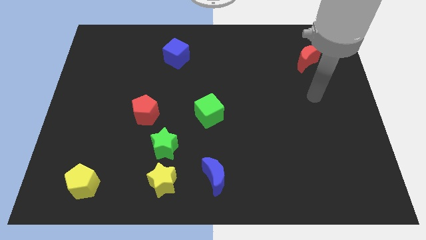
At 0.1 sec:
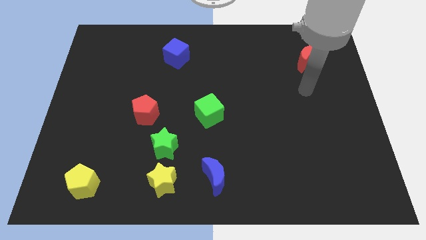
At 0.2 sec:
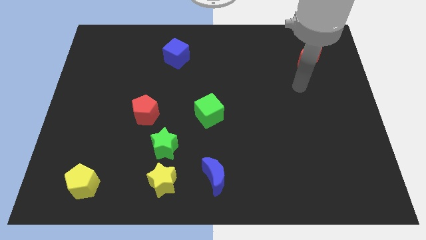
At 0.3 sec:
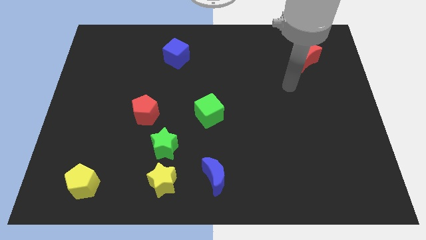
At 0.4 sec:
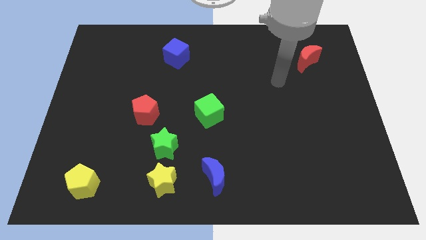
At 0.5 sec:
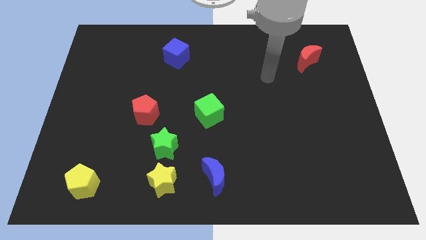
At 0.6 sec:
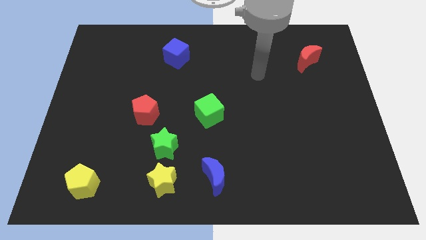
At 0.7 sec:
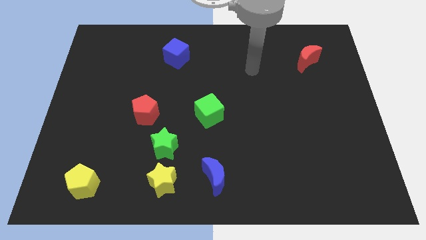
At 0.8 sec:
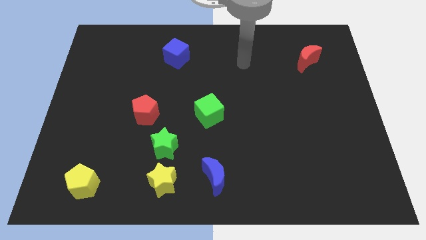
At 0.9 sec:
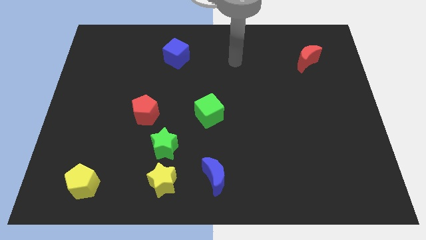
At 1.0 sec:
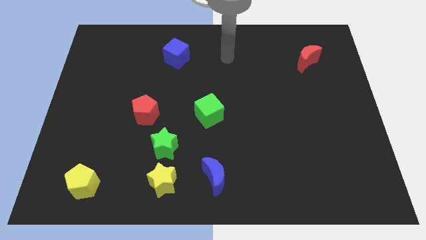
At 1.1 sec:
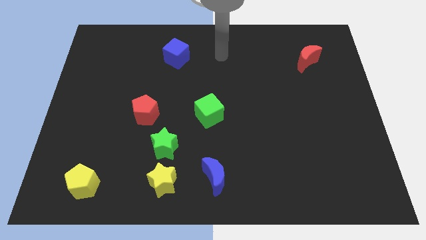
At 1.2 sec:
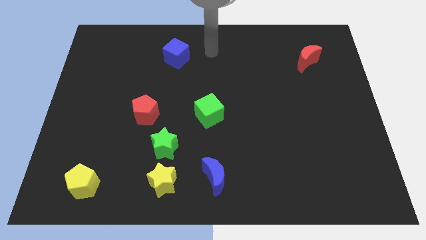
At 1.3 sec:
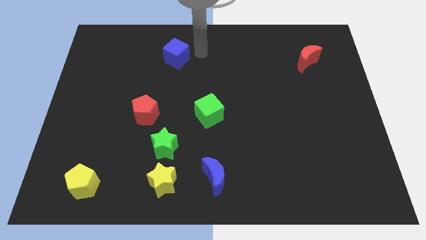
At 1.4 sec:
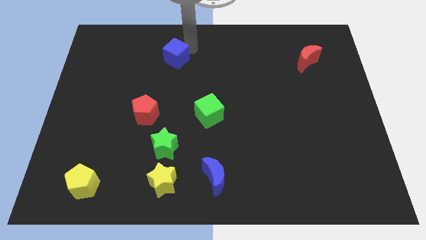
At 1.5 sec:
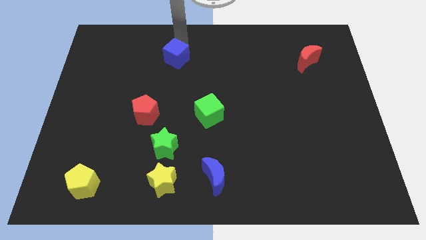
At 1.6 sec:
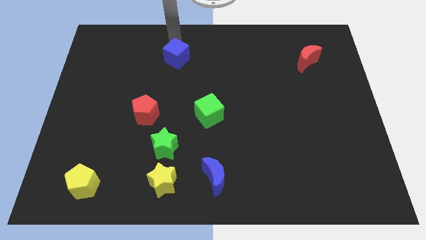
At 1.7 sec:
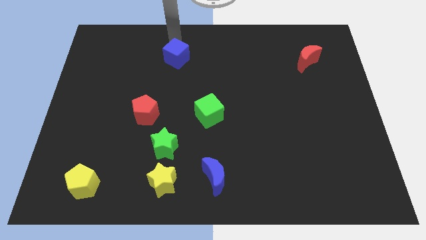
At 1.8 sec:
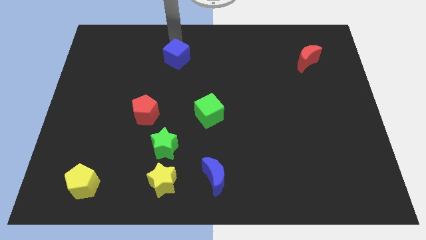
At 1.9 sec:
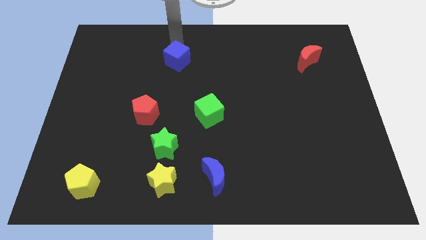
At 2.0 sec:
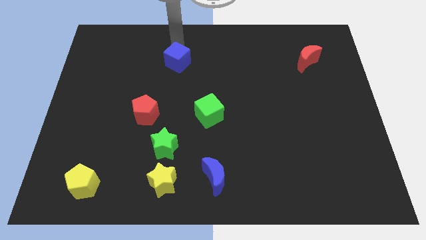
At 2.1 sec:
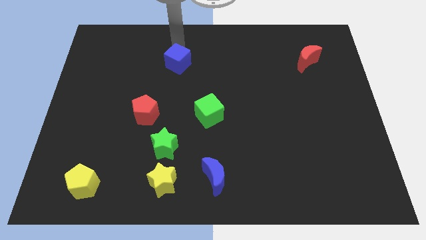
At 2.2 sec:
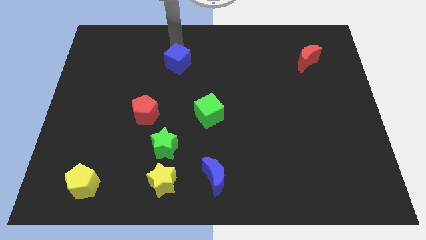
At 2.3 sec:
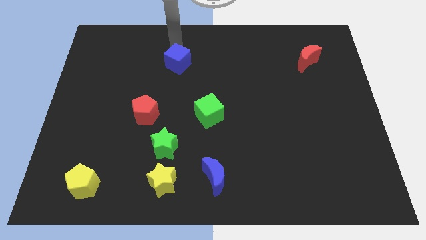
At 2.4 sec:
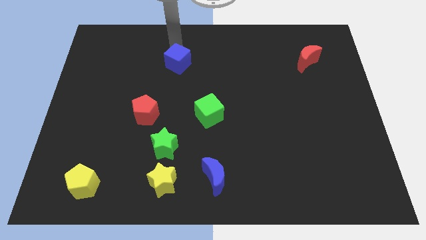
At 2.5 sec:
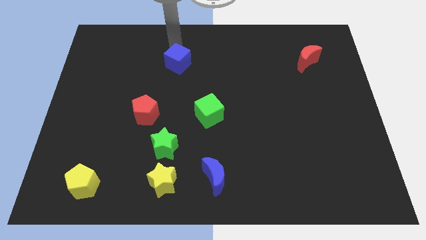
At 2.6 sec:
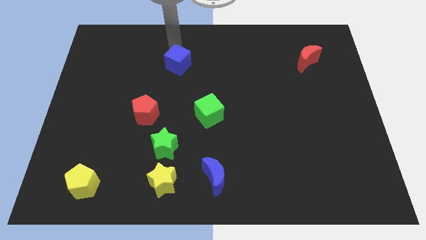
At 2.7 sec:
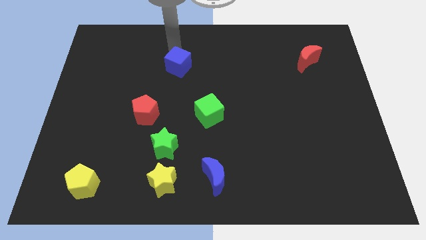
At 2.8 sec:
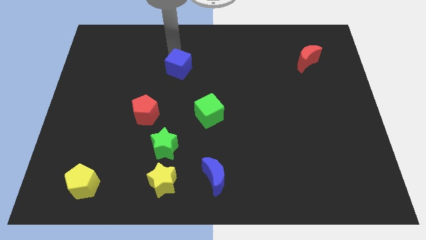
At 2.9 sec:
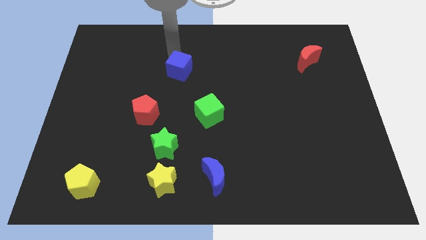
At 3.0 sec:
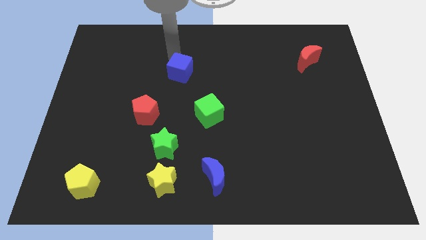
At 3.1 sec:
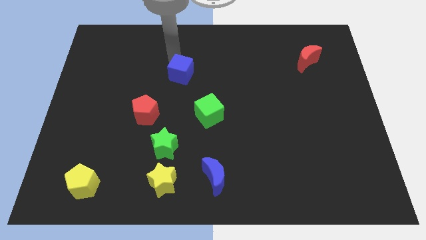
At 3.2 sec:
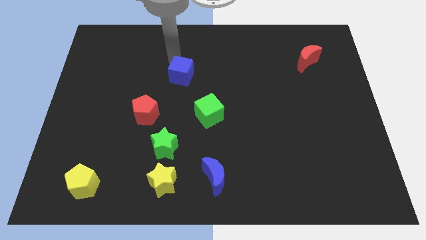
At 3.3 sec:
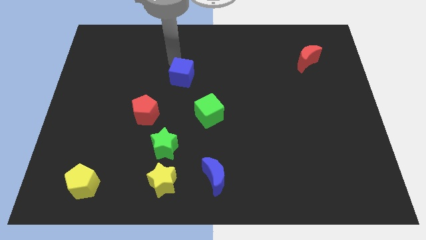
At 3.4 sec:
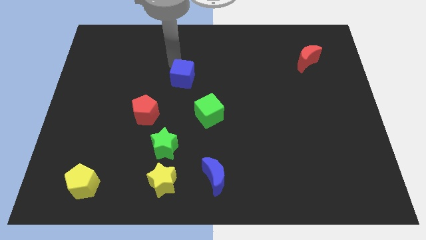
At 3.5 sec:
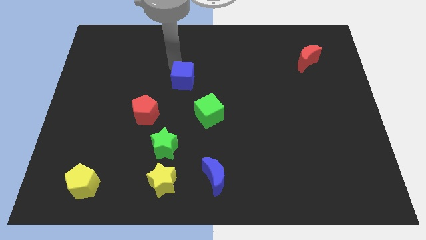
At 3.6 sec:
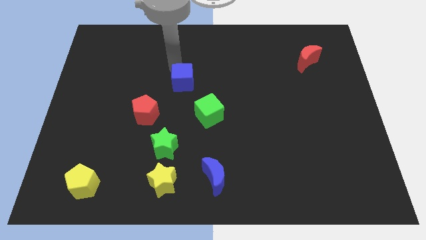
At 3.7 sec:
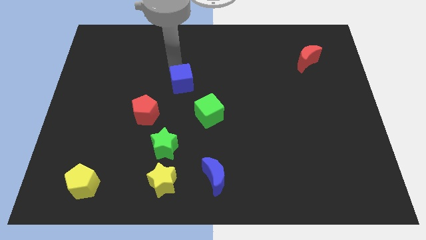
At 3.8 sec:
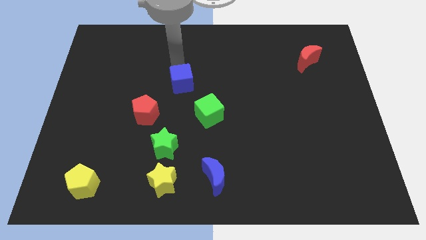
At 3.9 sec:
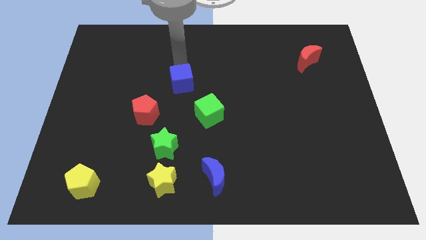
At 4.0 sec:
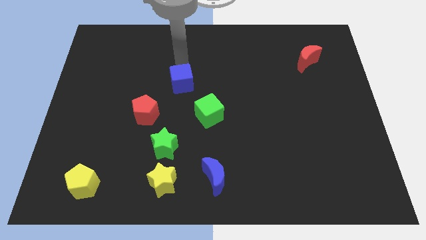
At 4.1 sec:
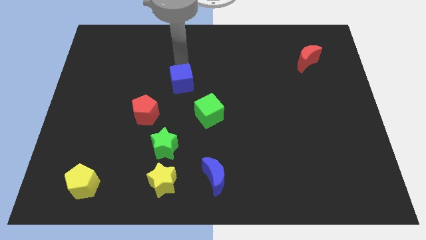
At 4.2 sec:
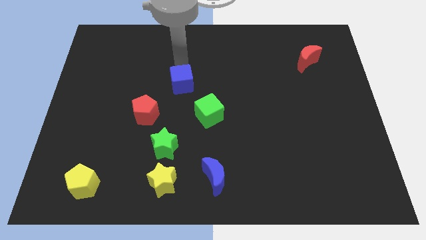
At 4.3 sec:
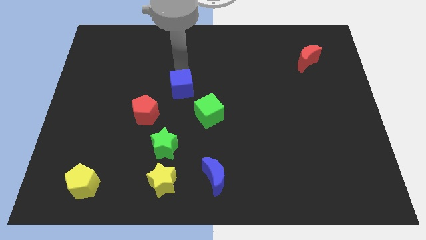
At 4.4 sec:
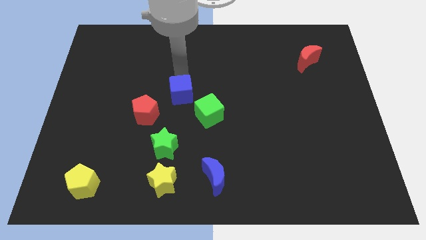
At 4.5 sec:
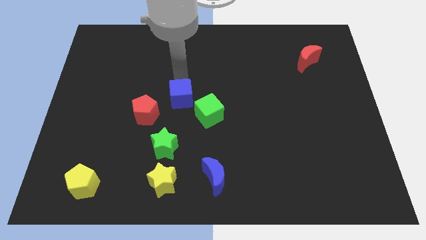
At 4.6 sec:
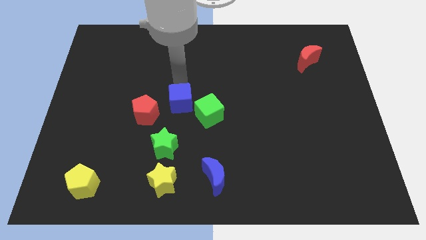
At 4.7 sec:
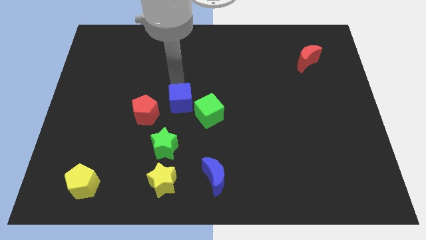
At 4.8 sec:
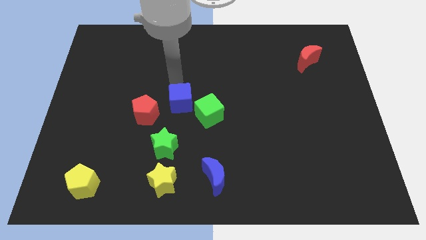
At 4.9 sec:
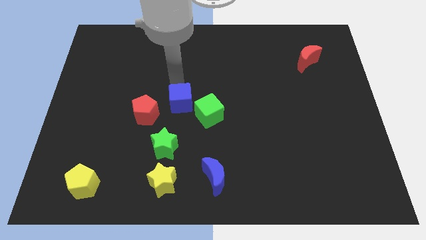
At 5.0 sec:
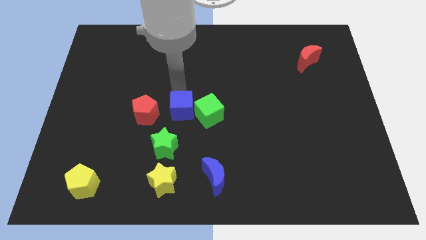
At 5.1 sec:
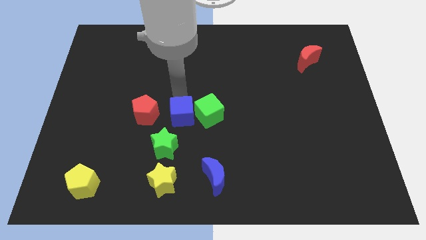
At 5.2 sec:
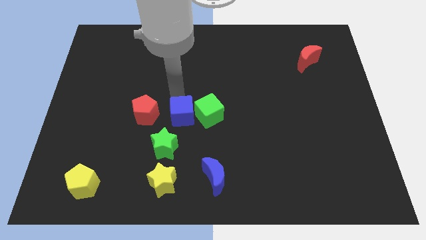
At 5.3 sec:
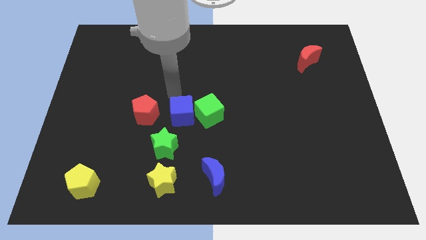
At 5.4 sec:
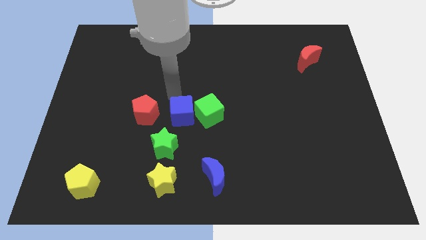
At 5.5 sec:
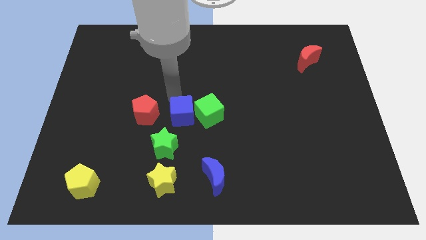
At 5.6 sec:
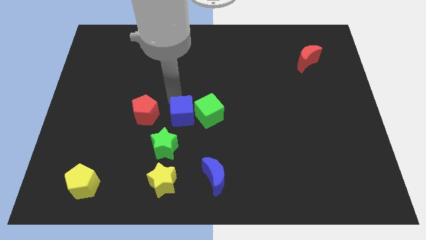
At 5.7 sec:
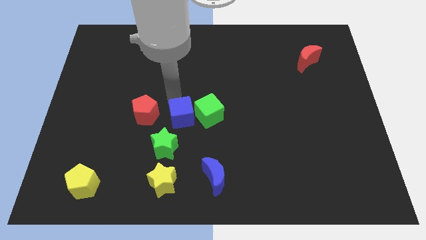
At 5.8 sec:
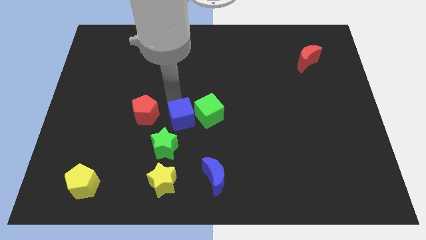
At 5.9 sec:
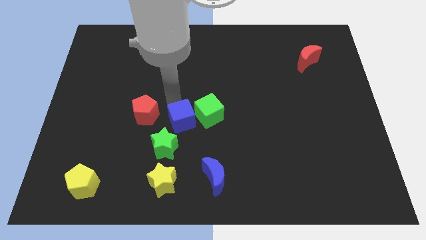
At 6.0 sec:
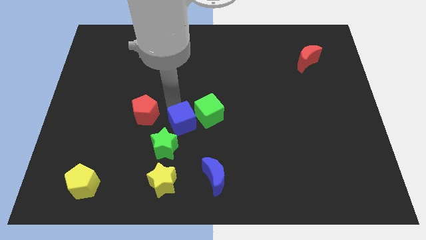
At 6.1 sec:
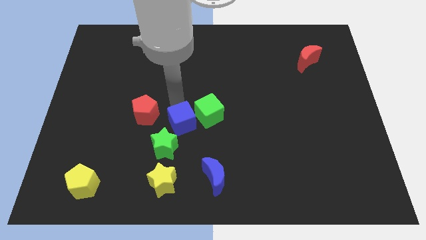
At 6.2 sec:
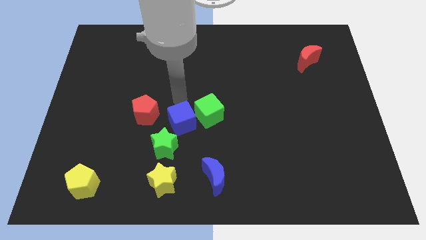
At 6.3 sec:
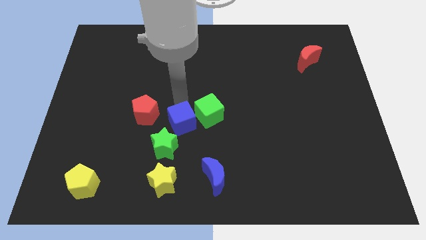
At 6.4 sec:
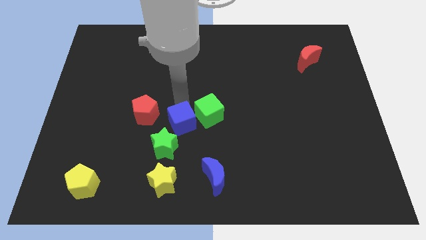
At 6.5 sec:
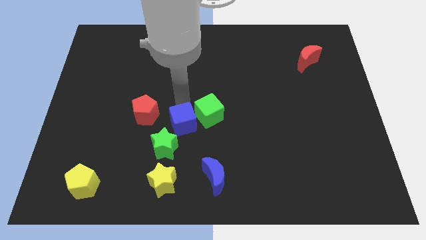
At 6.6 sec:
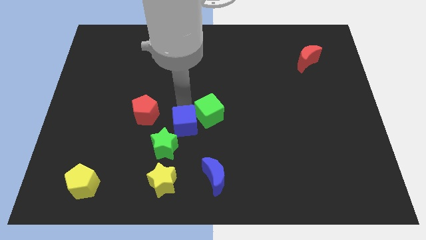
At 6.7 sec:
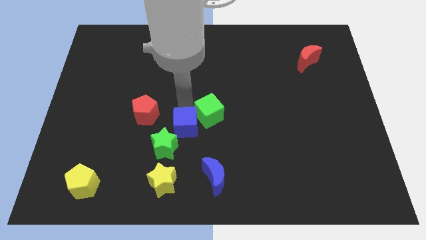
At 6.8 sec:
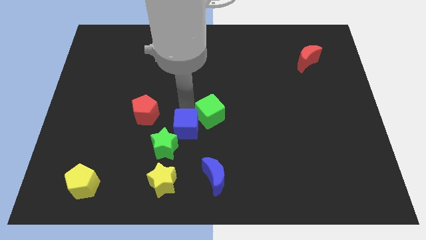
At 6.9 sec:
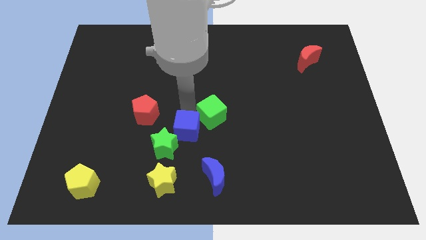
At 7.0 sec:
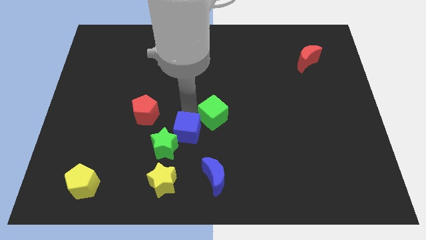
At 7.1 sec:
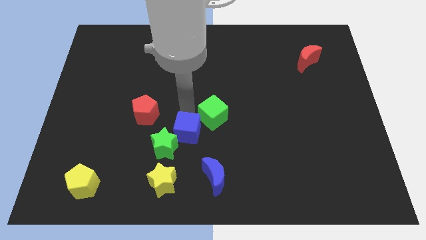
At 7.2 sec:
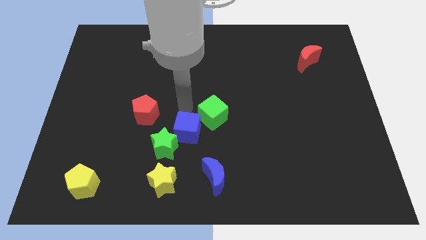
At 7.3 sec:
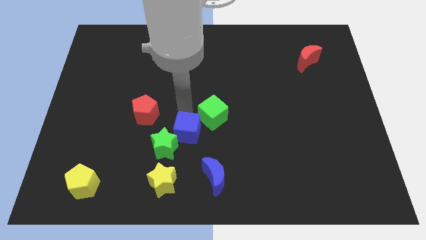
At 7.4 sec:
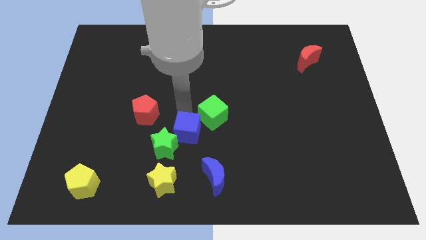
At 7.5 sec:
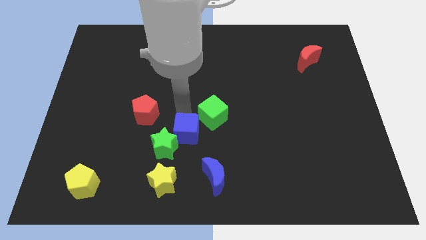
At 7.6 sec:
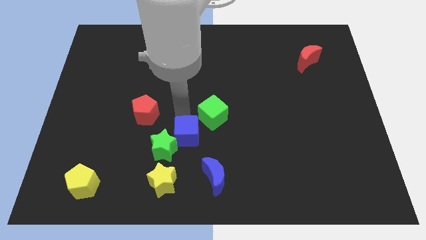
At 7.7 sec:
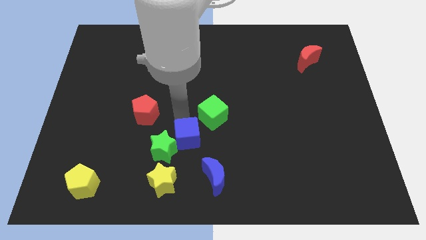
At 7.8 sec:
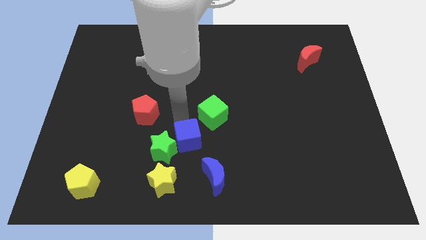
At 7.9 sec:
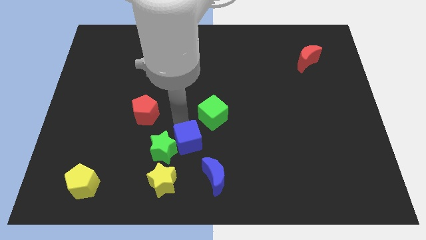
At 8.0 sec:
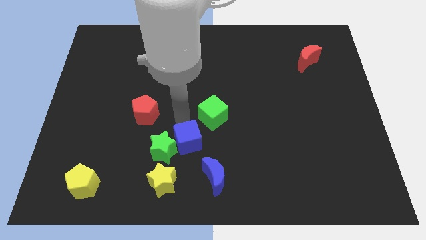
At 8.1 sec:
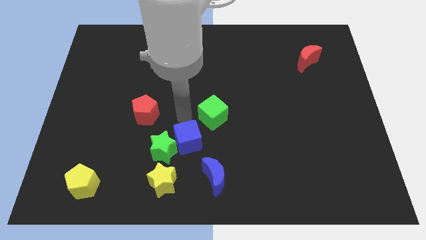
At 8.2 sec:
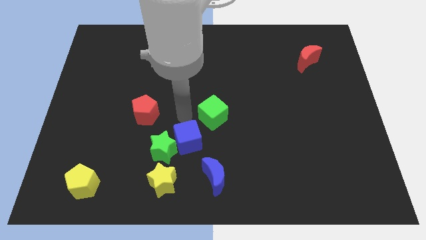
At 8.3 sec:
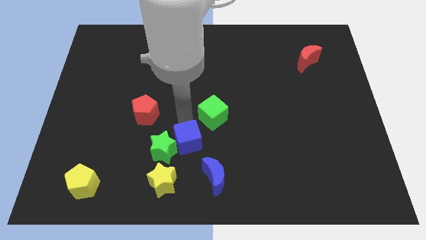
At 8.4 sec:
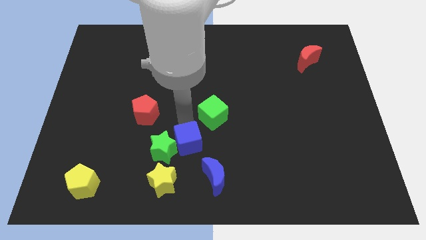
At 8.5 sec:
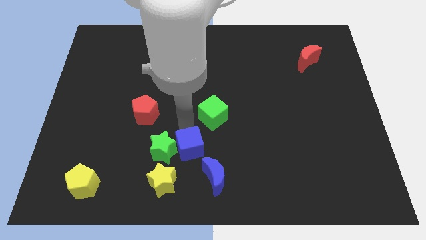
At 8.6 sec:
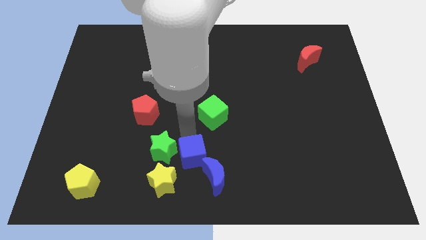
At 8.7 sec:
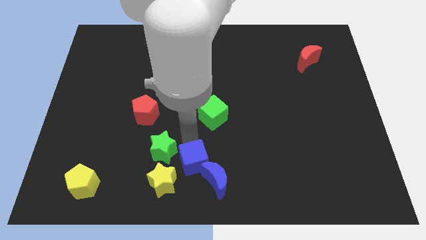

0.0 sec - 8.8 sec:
move the blue cube to the bottom side
